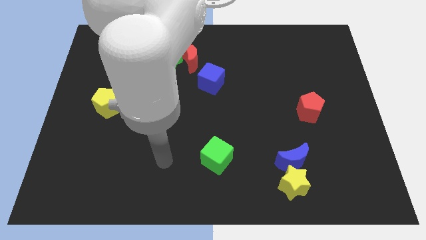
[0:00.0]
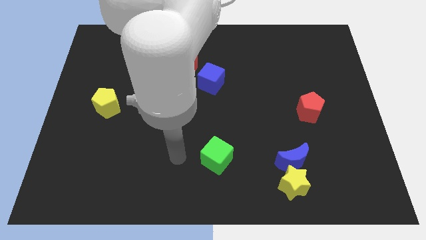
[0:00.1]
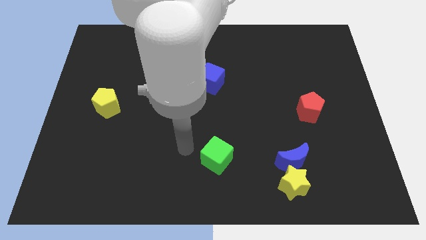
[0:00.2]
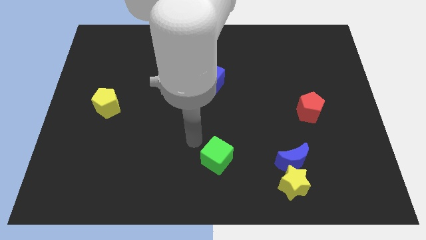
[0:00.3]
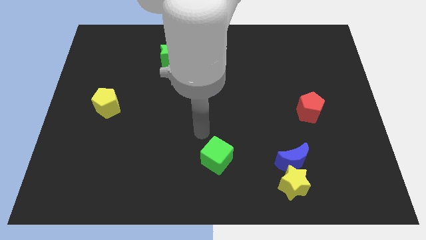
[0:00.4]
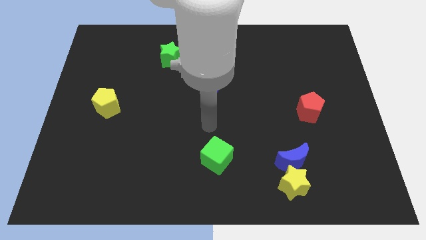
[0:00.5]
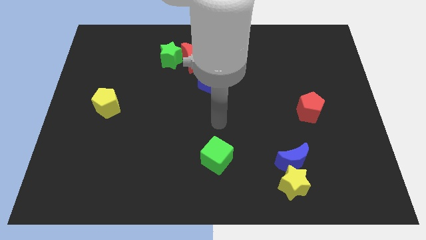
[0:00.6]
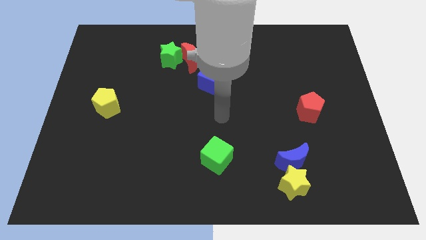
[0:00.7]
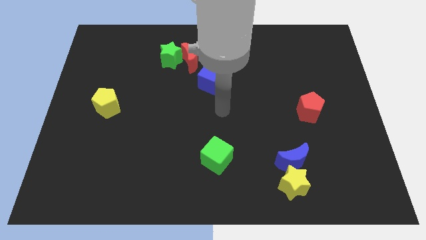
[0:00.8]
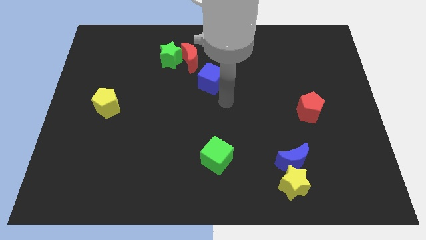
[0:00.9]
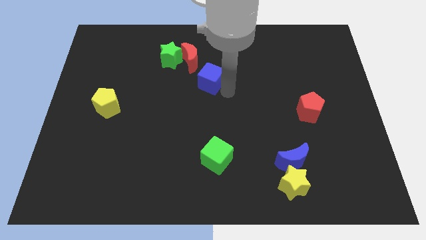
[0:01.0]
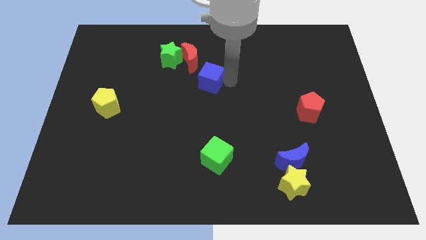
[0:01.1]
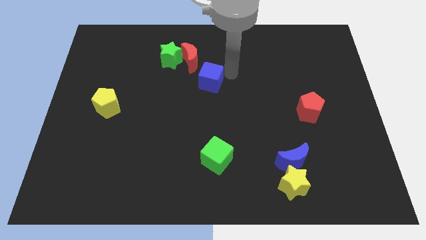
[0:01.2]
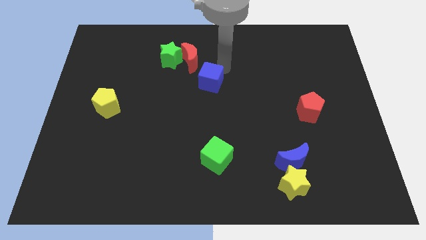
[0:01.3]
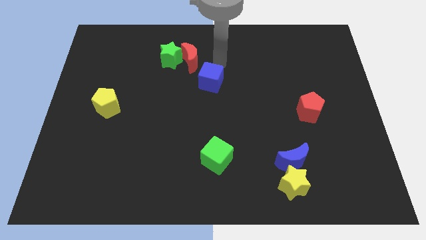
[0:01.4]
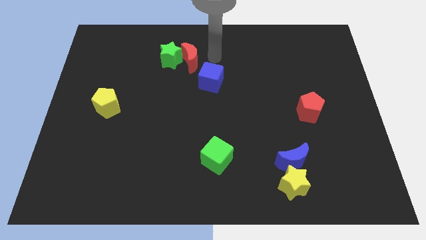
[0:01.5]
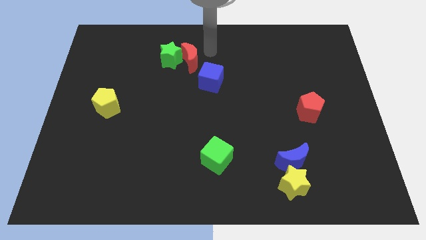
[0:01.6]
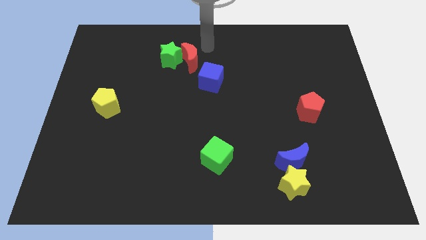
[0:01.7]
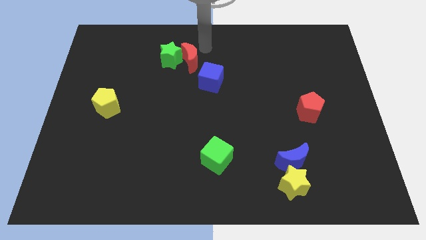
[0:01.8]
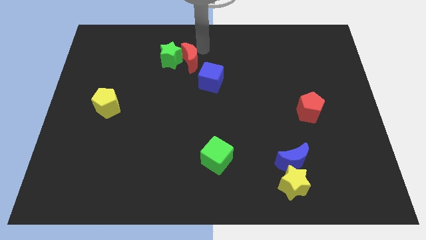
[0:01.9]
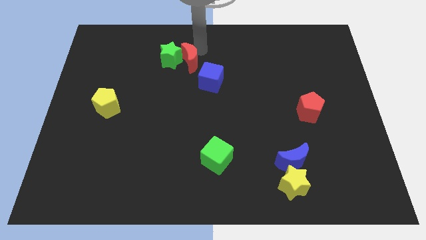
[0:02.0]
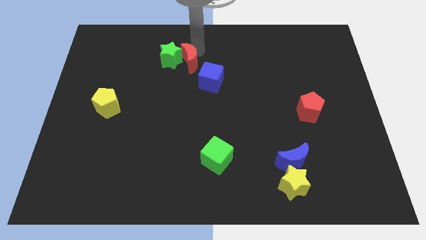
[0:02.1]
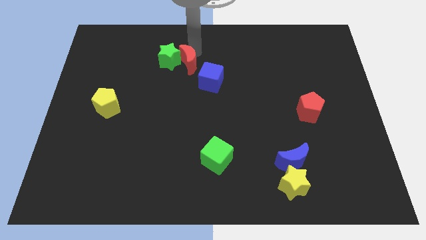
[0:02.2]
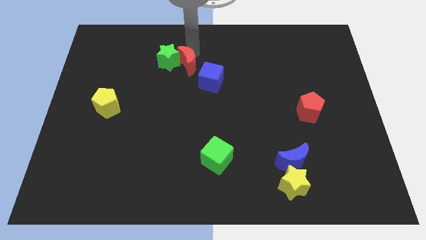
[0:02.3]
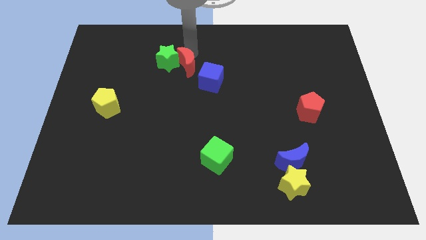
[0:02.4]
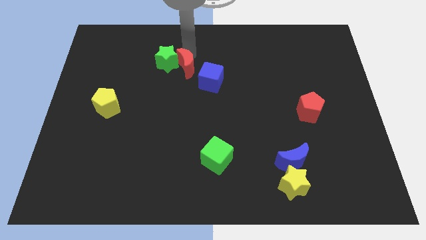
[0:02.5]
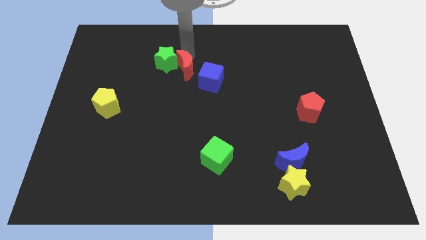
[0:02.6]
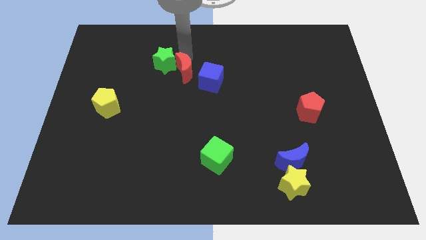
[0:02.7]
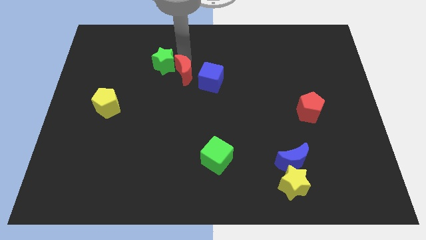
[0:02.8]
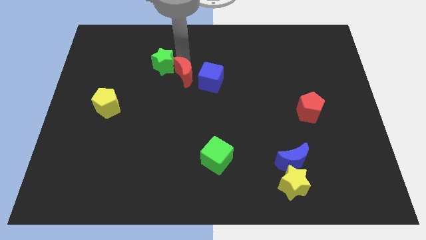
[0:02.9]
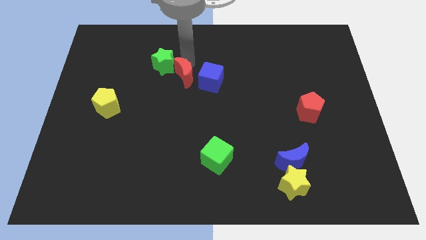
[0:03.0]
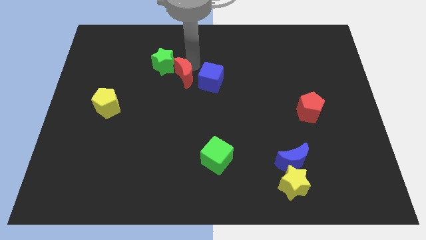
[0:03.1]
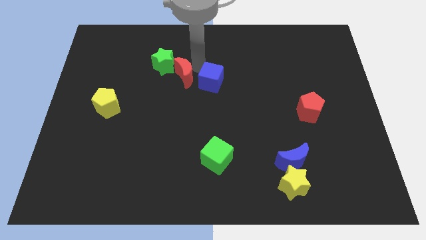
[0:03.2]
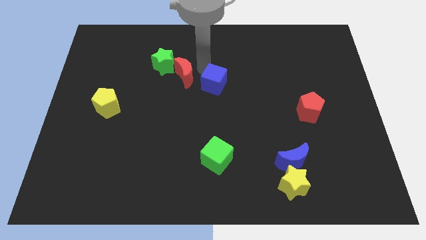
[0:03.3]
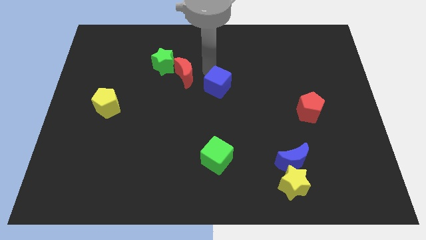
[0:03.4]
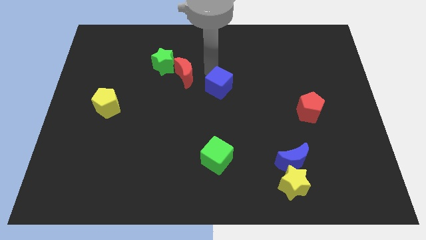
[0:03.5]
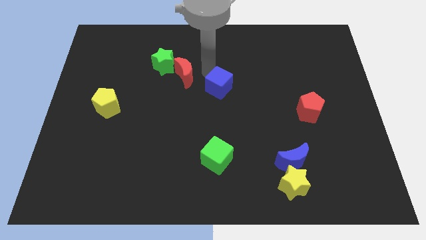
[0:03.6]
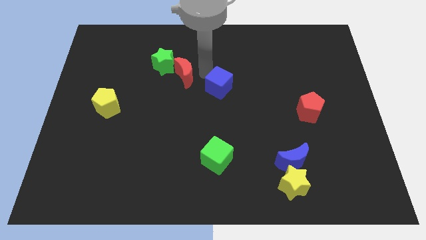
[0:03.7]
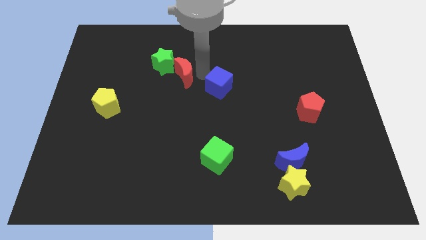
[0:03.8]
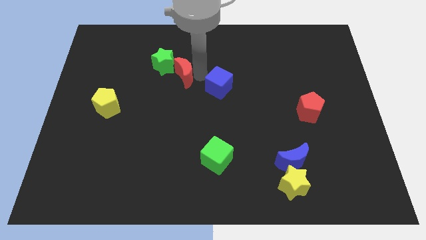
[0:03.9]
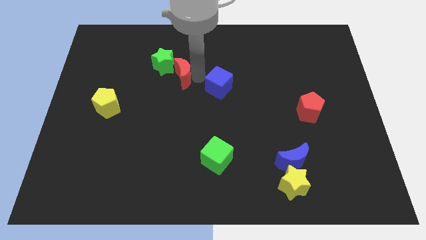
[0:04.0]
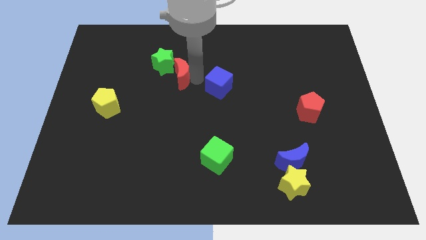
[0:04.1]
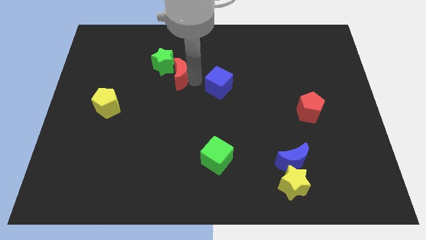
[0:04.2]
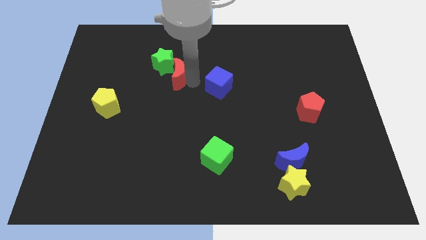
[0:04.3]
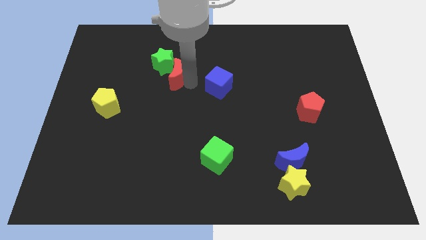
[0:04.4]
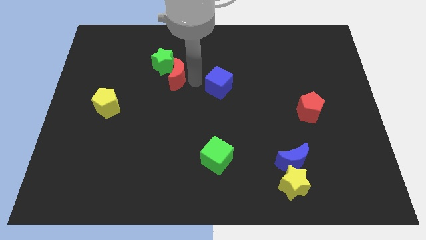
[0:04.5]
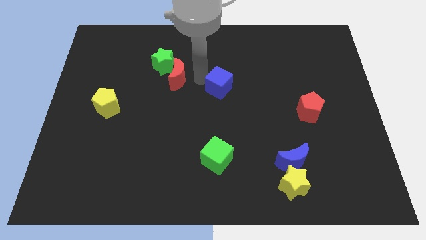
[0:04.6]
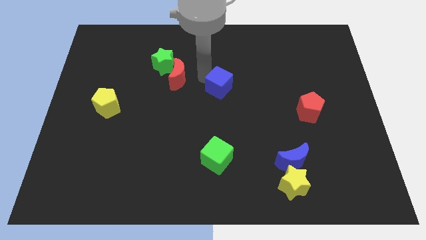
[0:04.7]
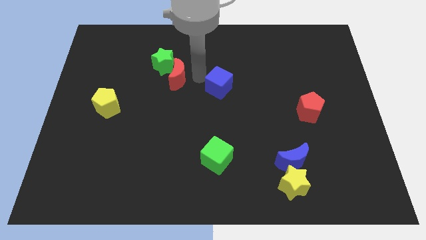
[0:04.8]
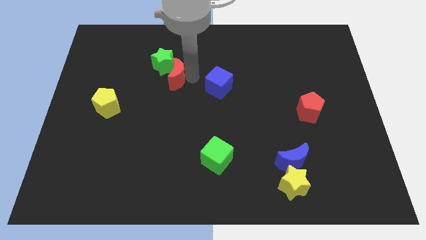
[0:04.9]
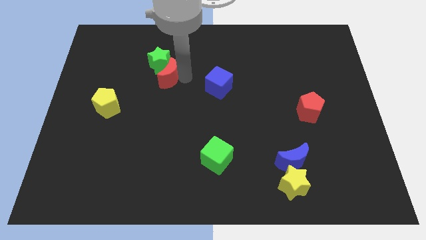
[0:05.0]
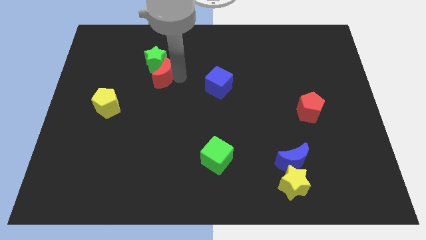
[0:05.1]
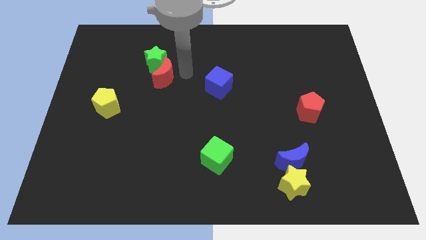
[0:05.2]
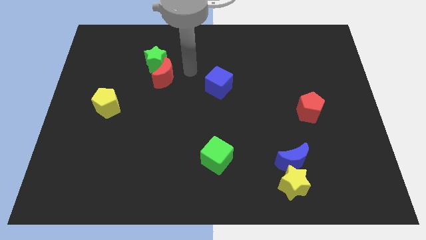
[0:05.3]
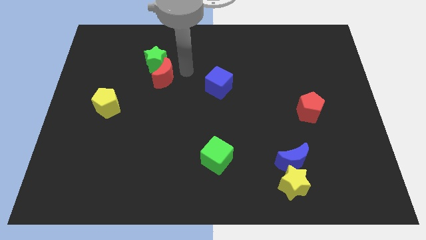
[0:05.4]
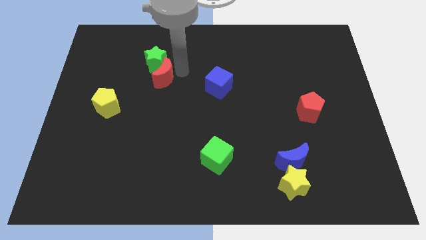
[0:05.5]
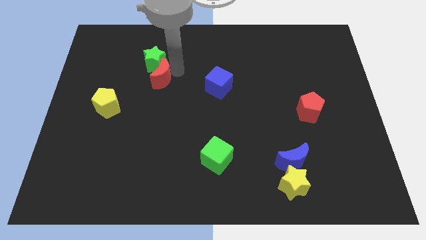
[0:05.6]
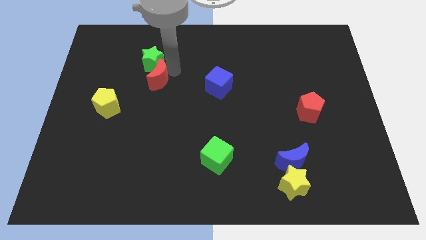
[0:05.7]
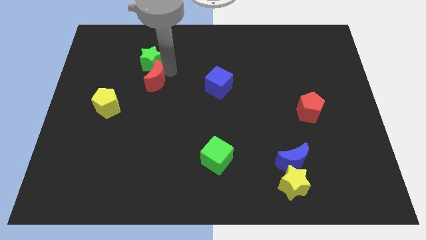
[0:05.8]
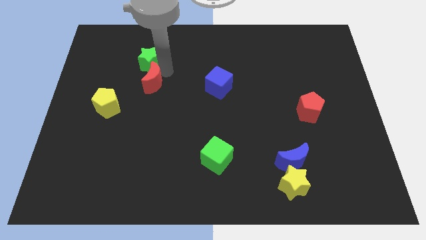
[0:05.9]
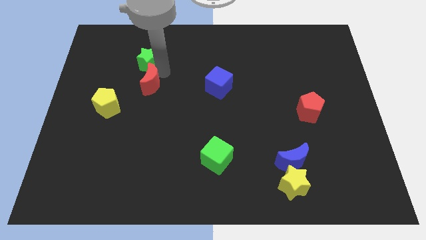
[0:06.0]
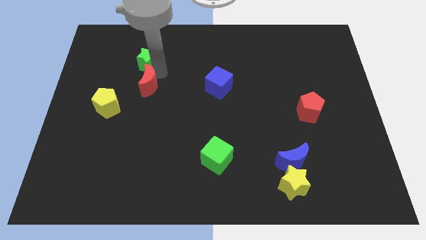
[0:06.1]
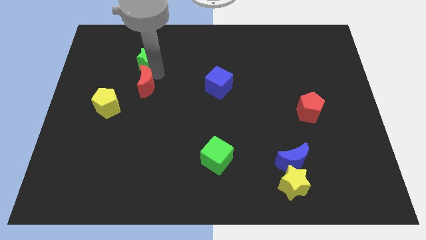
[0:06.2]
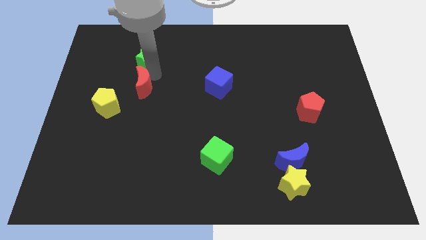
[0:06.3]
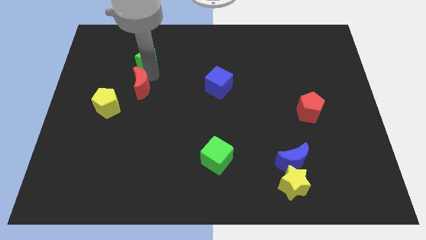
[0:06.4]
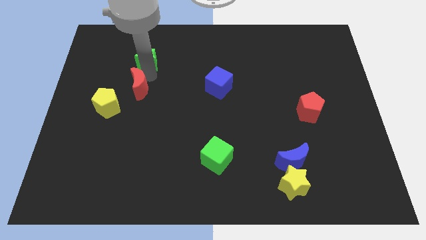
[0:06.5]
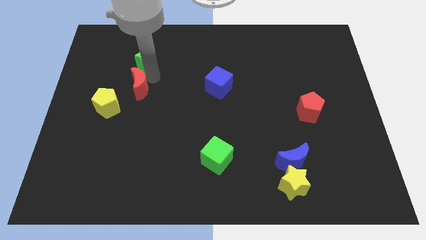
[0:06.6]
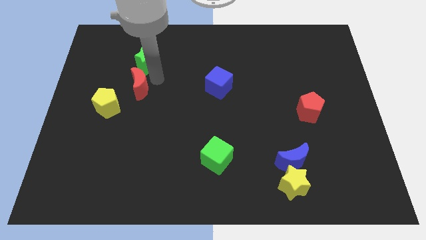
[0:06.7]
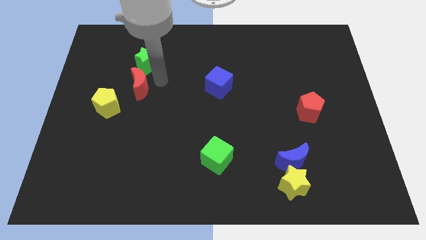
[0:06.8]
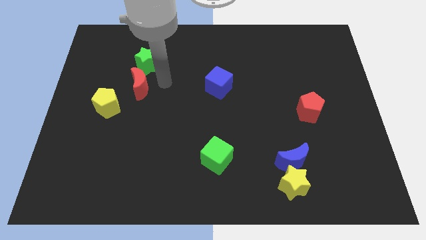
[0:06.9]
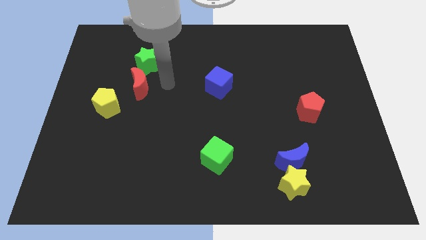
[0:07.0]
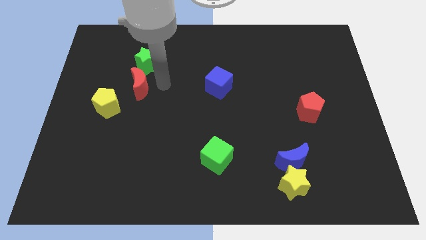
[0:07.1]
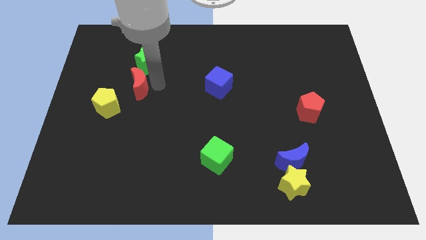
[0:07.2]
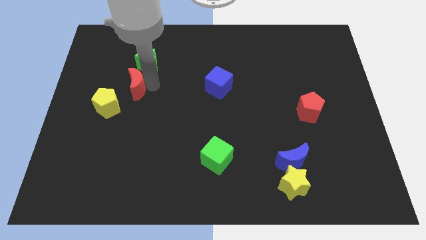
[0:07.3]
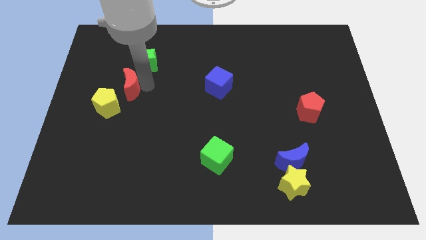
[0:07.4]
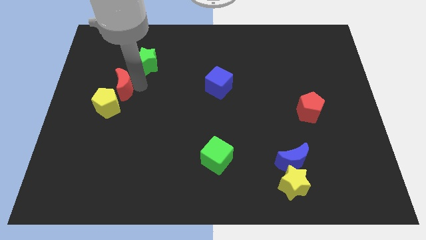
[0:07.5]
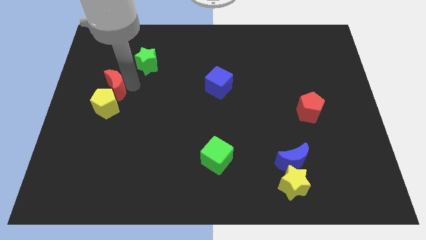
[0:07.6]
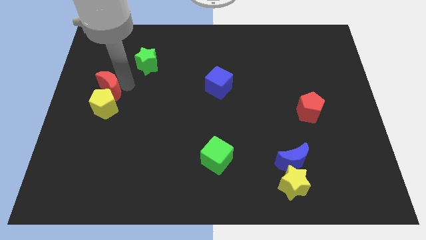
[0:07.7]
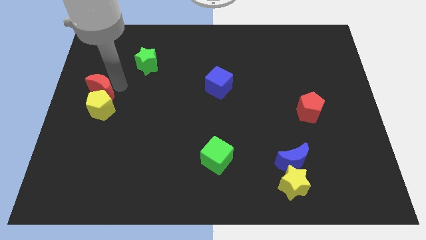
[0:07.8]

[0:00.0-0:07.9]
push the red moon to the left side
